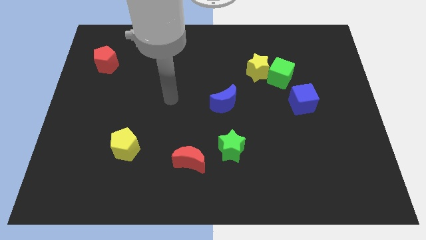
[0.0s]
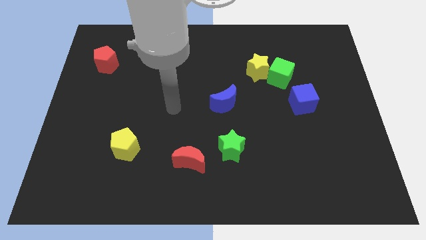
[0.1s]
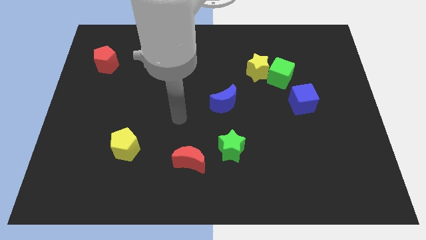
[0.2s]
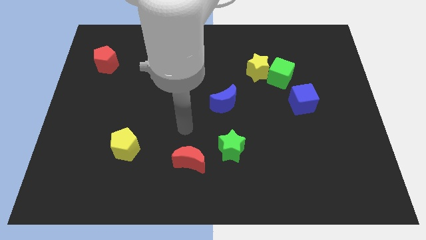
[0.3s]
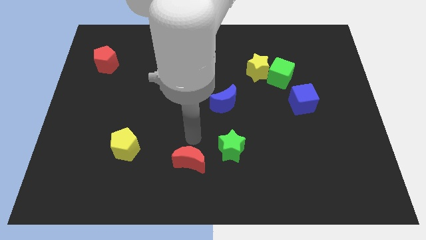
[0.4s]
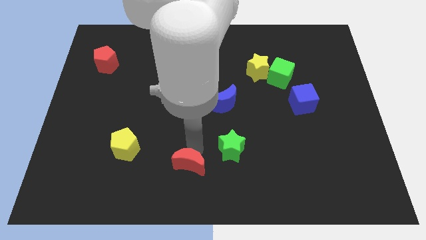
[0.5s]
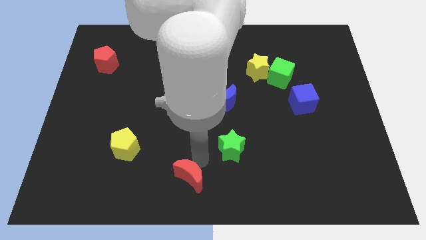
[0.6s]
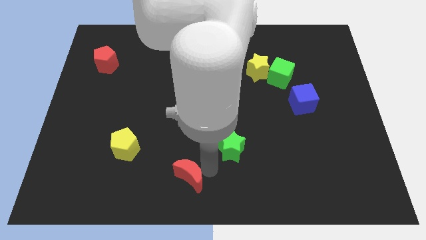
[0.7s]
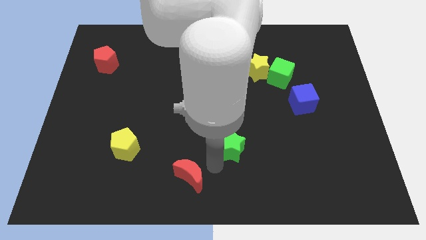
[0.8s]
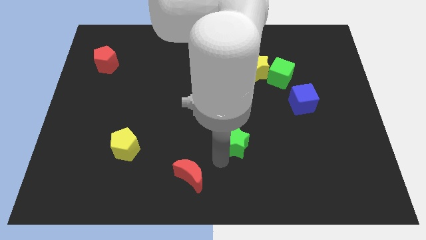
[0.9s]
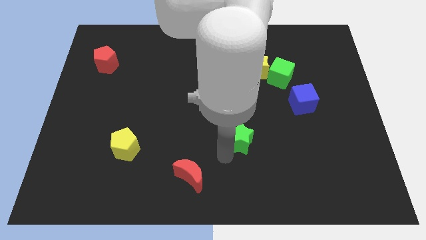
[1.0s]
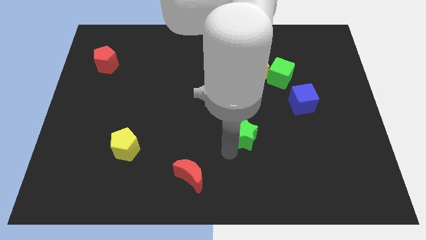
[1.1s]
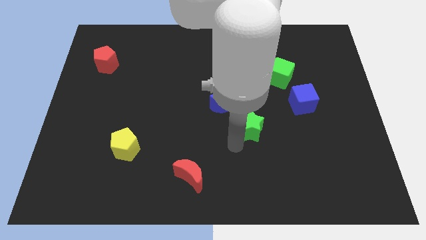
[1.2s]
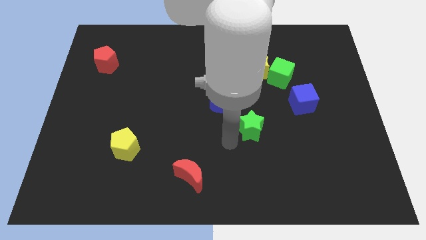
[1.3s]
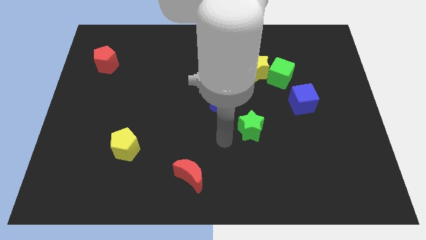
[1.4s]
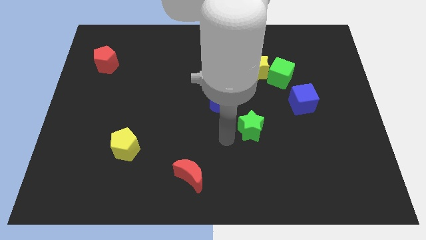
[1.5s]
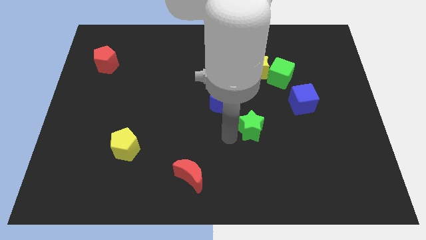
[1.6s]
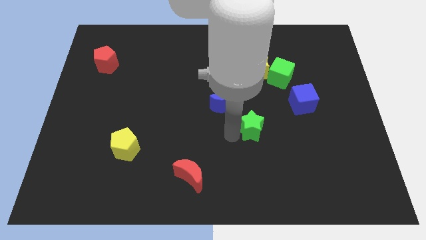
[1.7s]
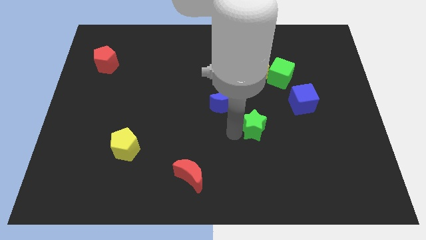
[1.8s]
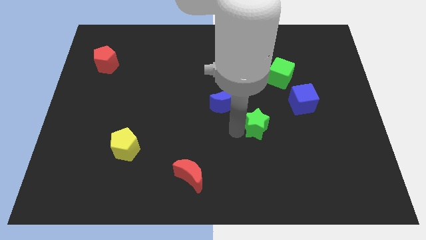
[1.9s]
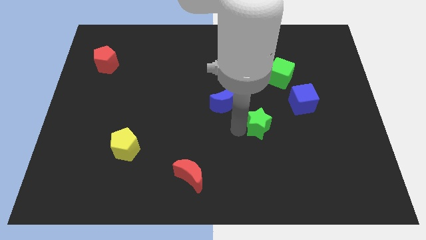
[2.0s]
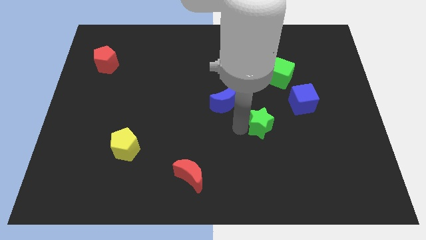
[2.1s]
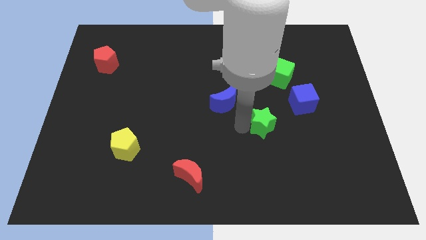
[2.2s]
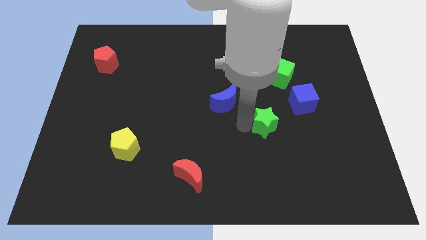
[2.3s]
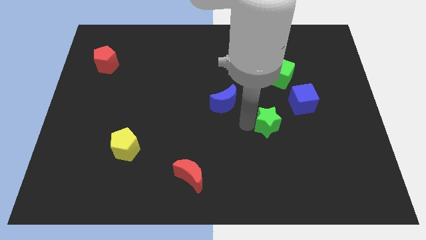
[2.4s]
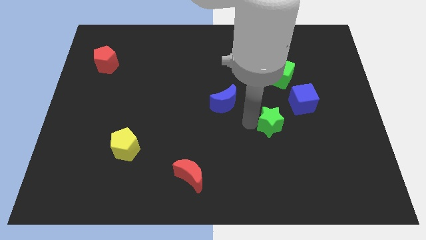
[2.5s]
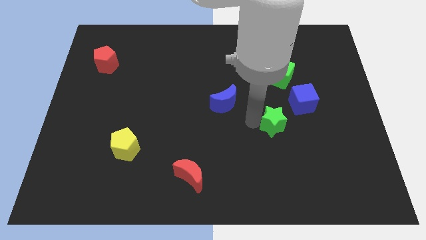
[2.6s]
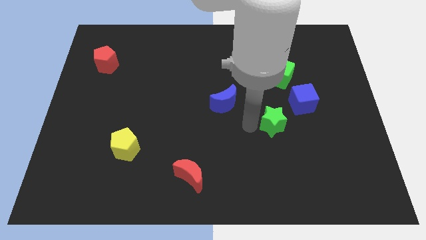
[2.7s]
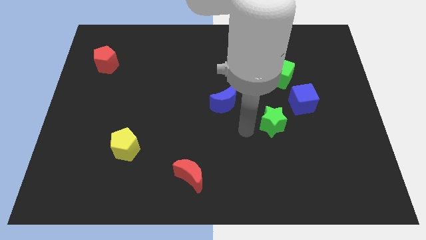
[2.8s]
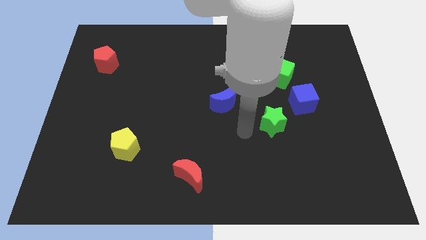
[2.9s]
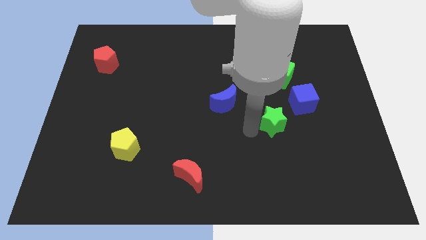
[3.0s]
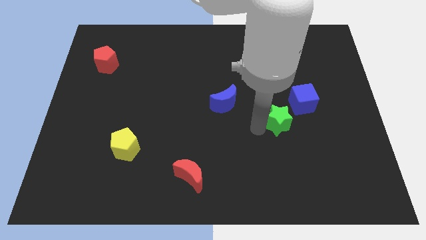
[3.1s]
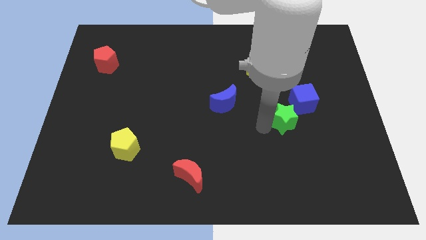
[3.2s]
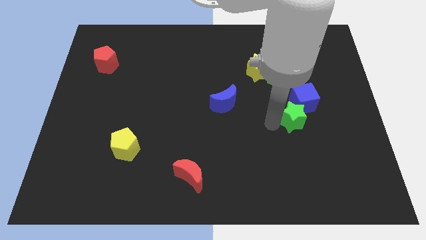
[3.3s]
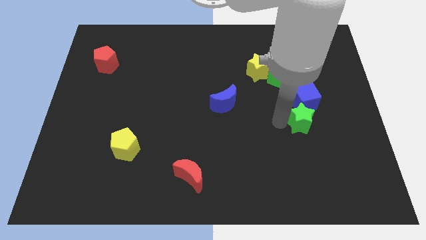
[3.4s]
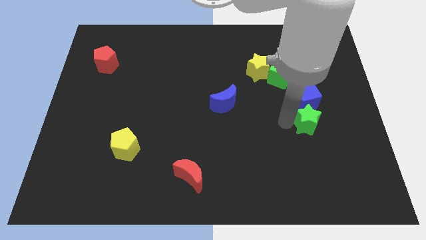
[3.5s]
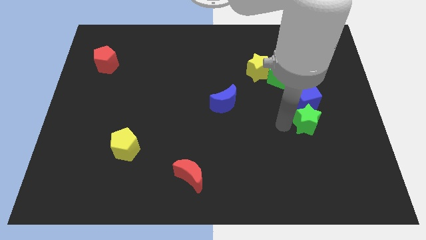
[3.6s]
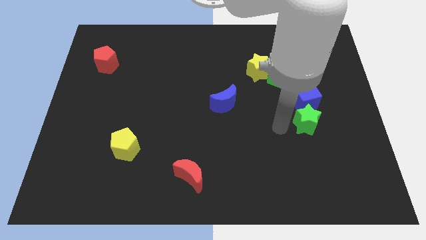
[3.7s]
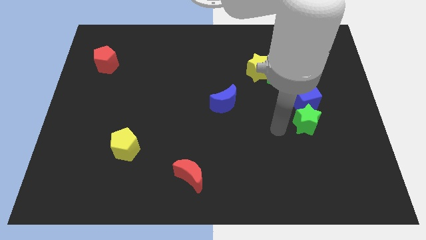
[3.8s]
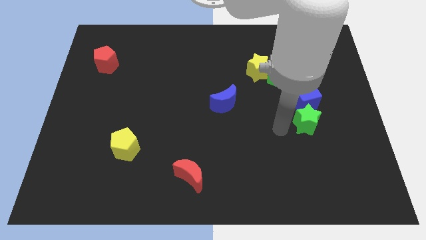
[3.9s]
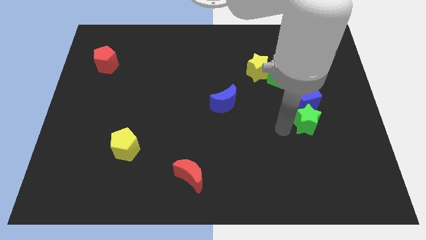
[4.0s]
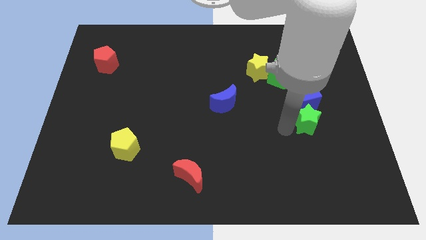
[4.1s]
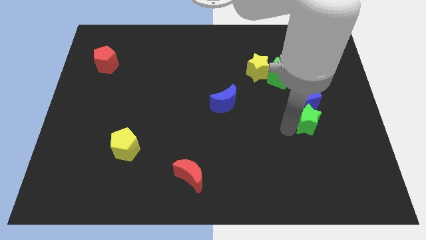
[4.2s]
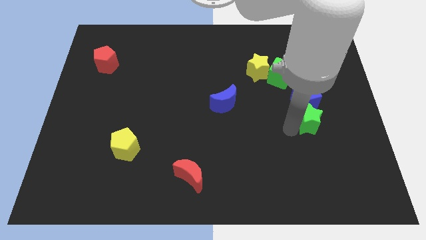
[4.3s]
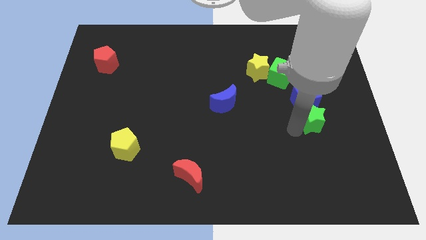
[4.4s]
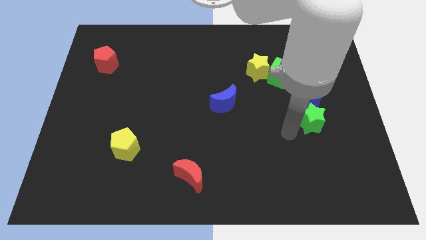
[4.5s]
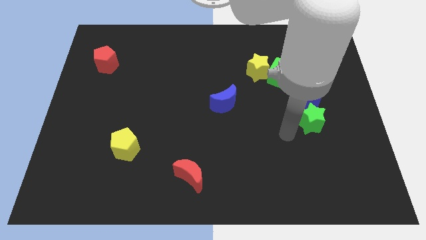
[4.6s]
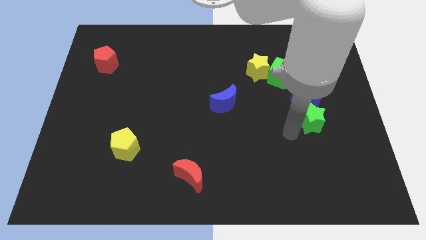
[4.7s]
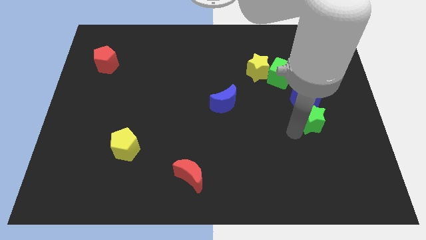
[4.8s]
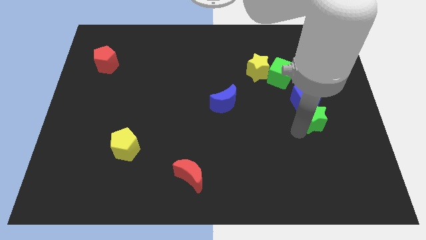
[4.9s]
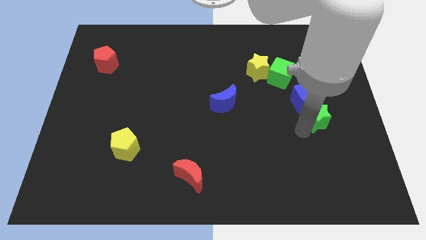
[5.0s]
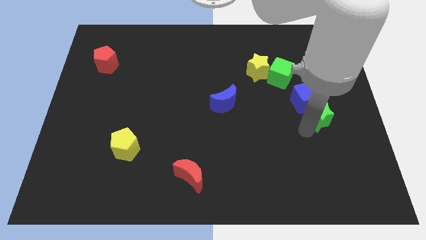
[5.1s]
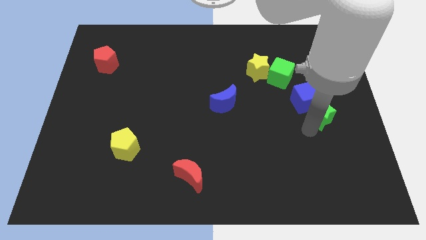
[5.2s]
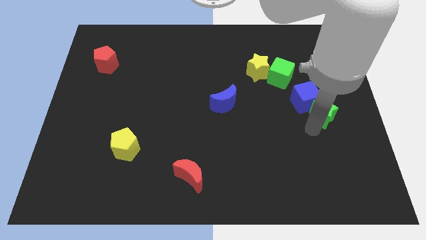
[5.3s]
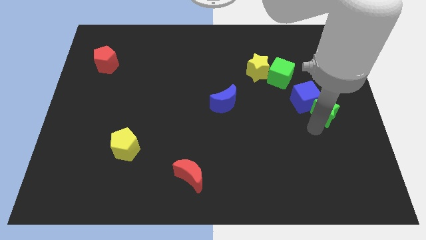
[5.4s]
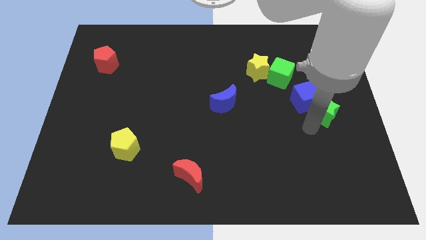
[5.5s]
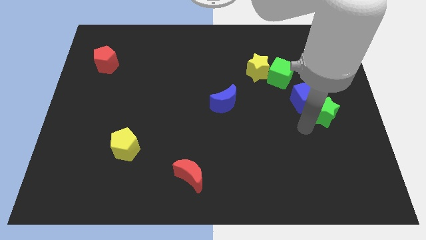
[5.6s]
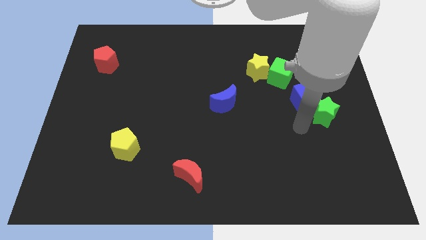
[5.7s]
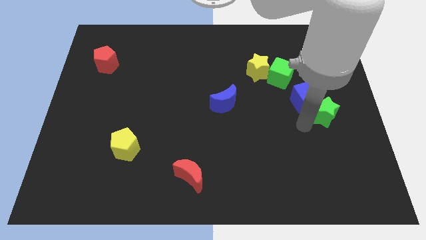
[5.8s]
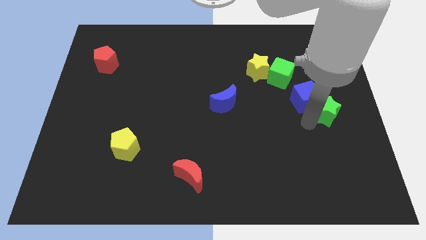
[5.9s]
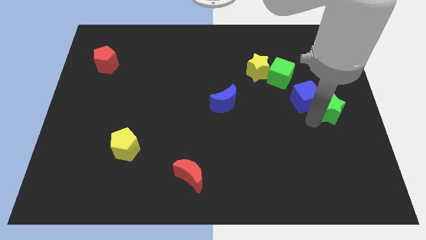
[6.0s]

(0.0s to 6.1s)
push the green star diagonally upwards and to the right

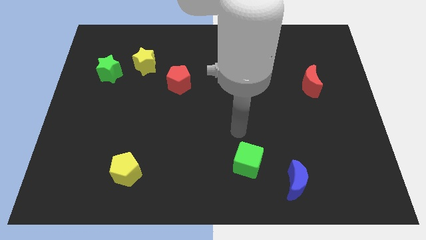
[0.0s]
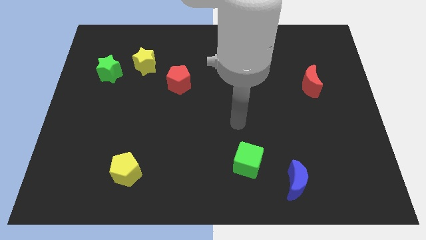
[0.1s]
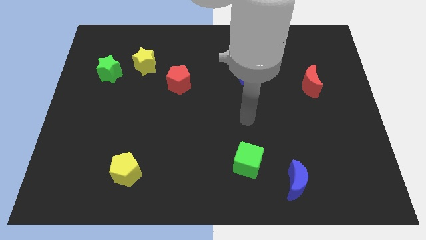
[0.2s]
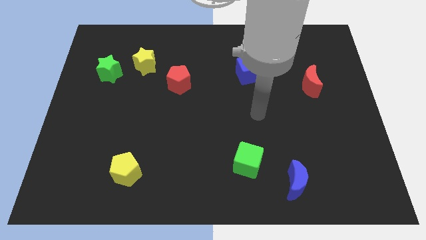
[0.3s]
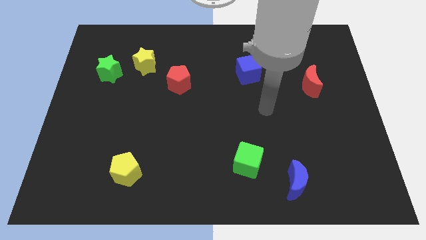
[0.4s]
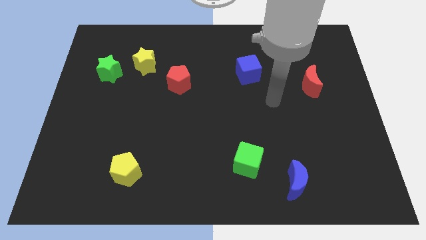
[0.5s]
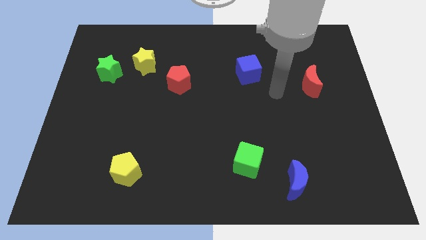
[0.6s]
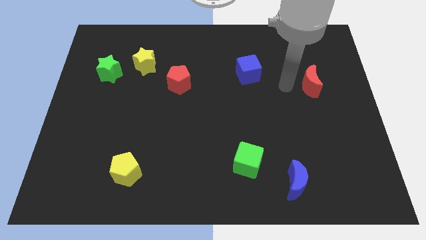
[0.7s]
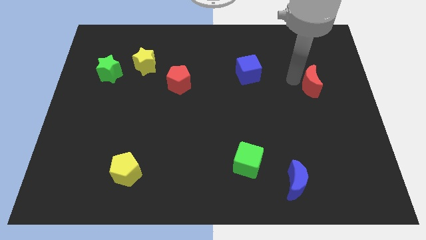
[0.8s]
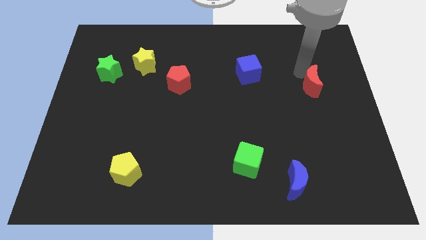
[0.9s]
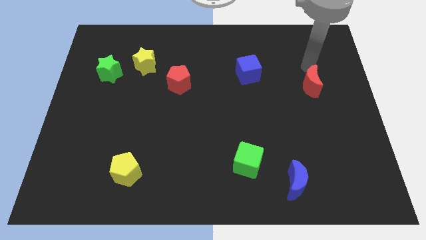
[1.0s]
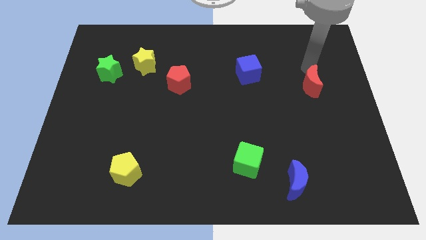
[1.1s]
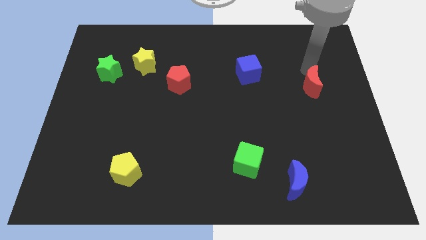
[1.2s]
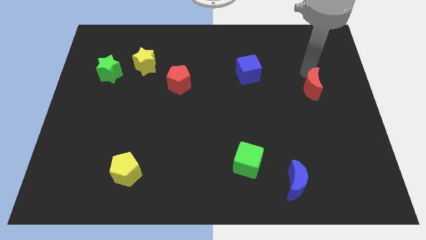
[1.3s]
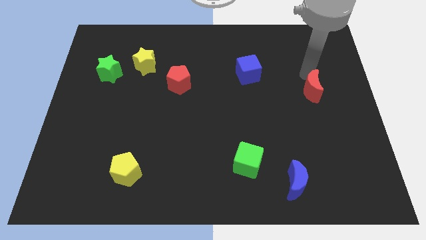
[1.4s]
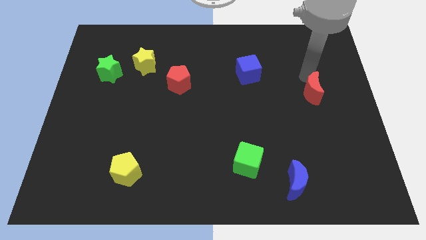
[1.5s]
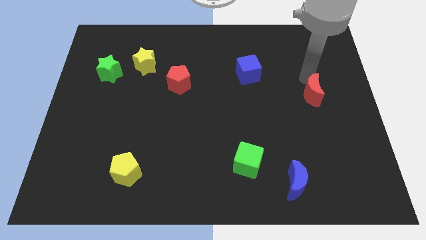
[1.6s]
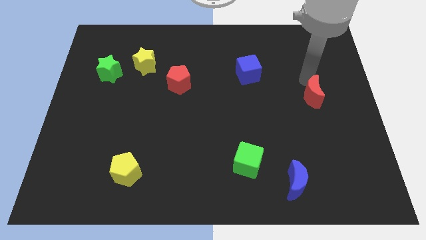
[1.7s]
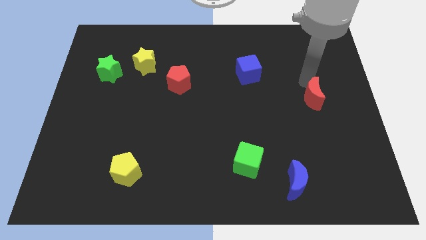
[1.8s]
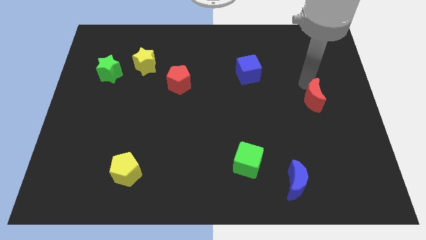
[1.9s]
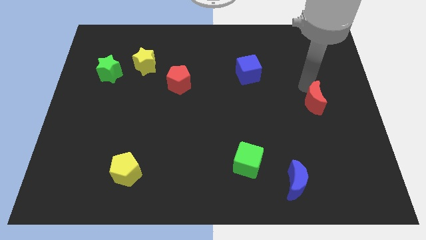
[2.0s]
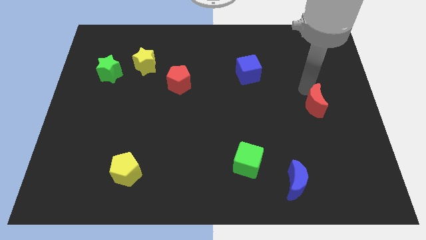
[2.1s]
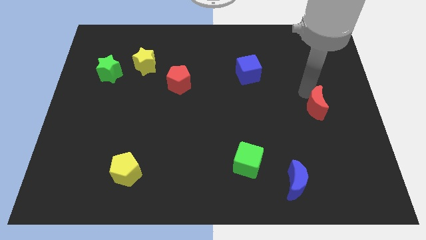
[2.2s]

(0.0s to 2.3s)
slide the red moon downwards somewhat
